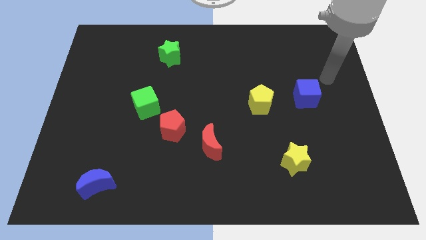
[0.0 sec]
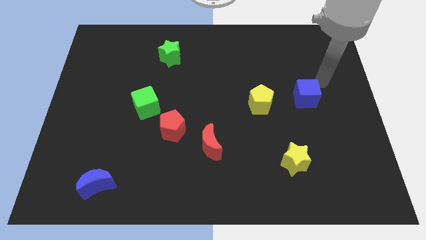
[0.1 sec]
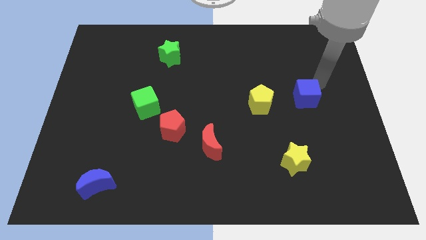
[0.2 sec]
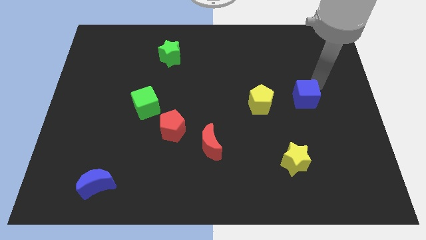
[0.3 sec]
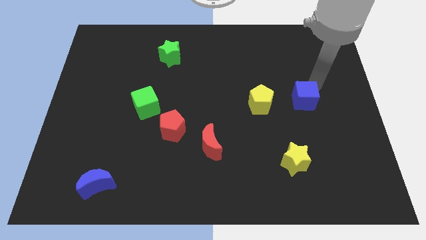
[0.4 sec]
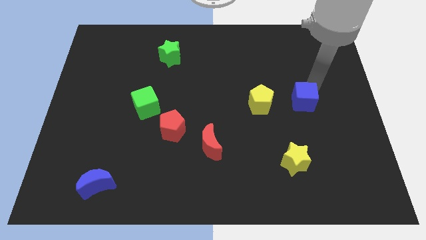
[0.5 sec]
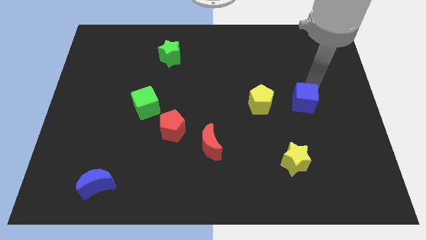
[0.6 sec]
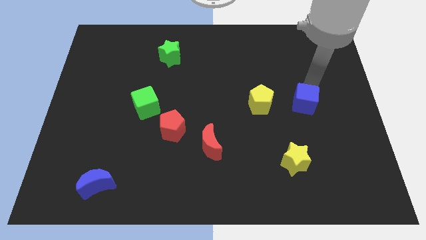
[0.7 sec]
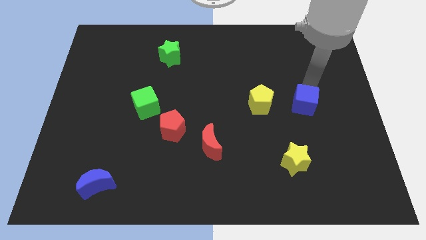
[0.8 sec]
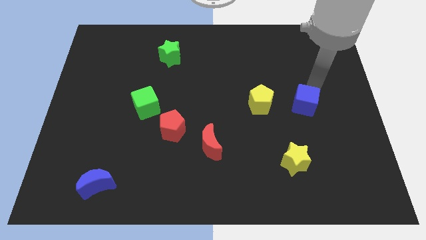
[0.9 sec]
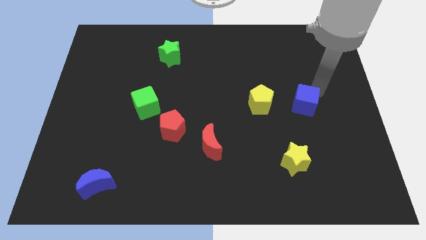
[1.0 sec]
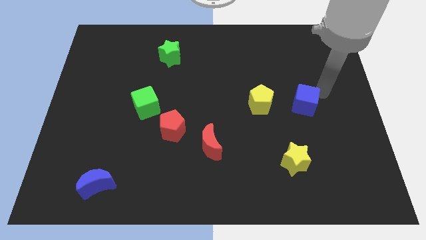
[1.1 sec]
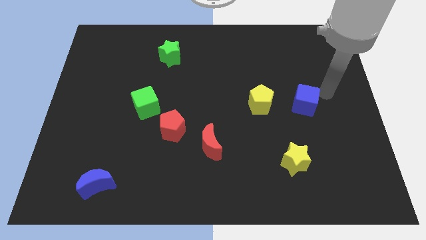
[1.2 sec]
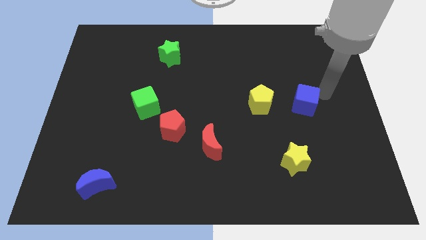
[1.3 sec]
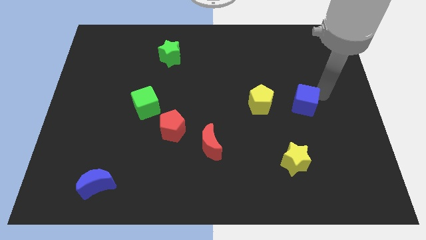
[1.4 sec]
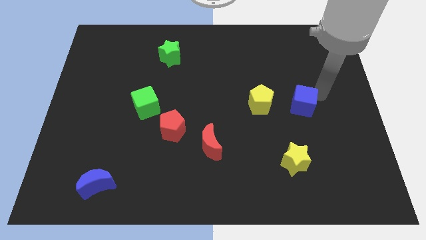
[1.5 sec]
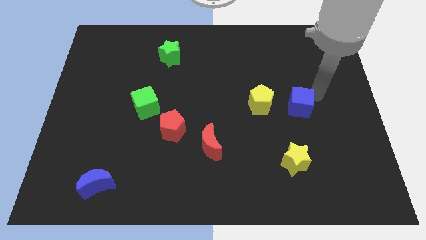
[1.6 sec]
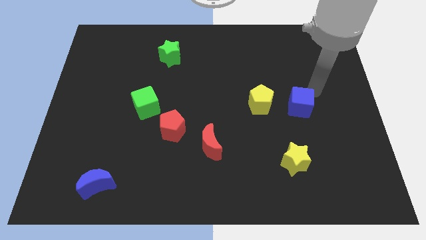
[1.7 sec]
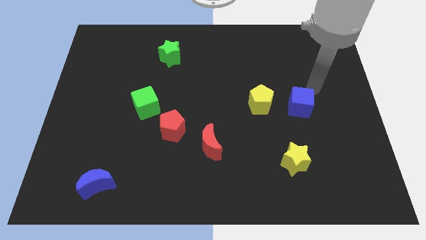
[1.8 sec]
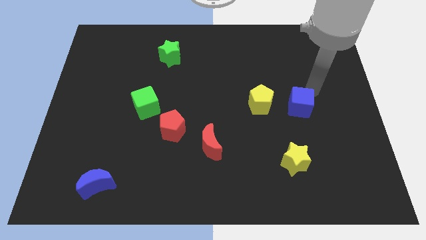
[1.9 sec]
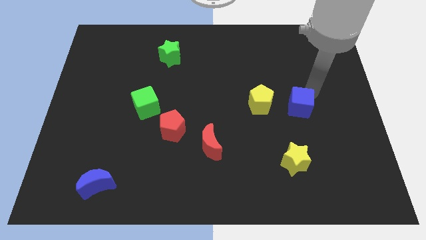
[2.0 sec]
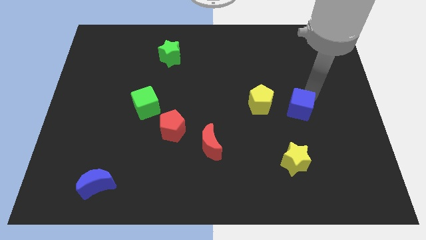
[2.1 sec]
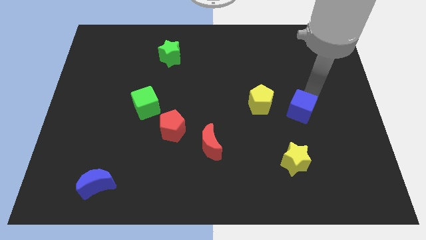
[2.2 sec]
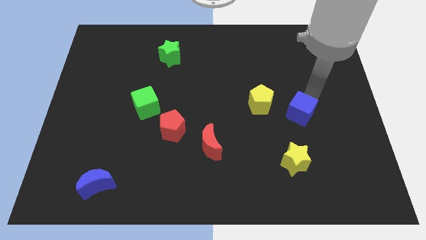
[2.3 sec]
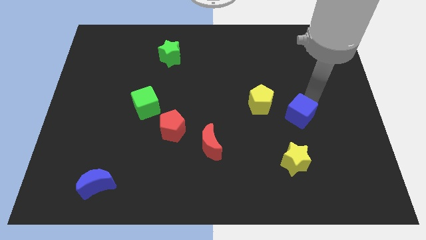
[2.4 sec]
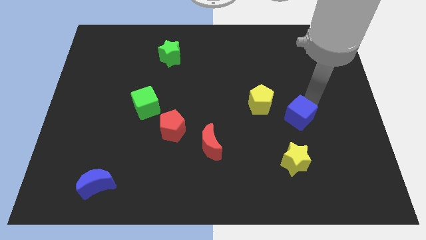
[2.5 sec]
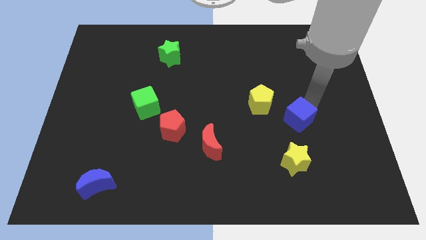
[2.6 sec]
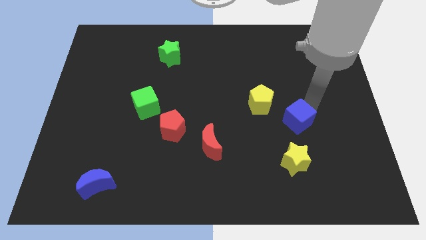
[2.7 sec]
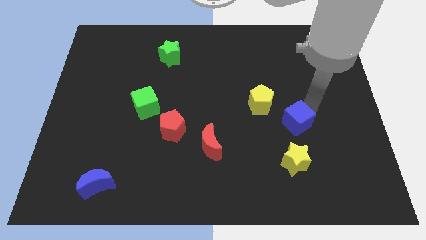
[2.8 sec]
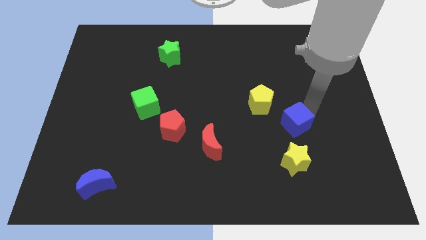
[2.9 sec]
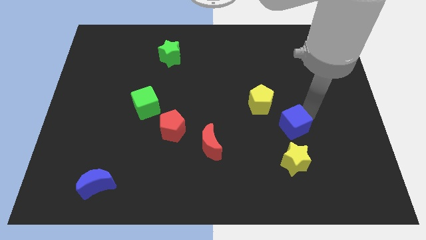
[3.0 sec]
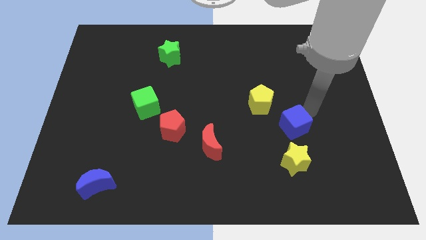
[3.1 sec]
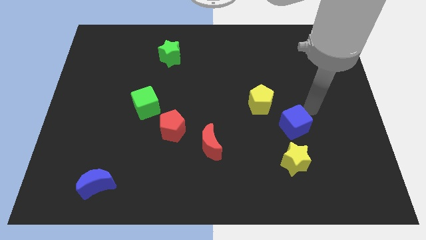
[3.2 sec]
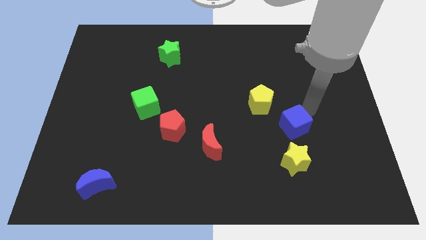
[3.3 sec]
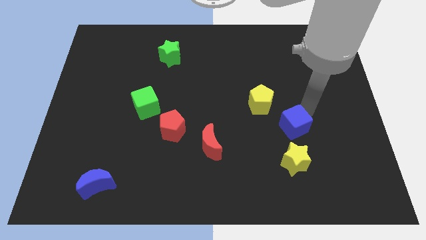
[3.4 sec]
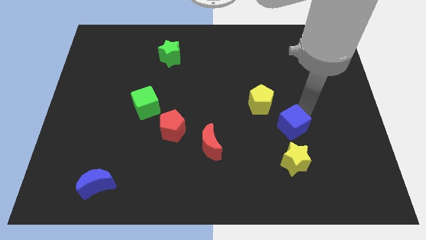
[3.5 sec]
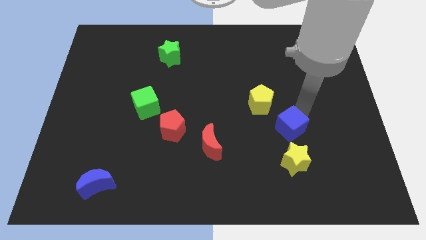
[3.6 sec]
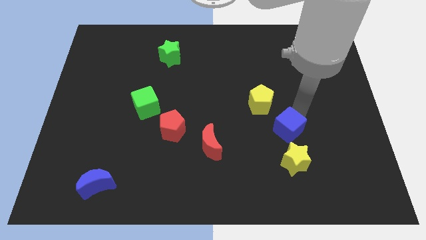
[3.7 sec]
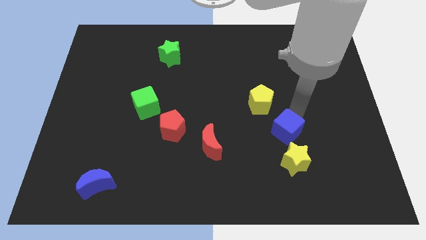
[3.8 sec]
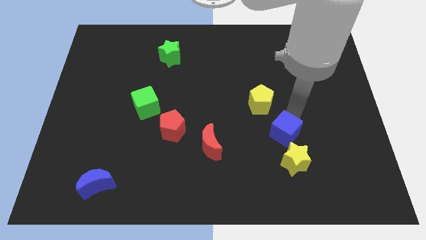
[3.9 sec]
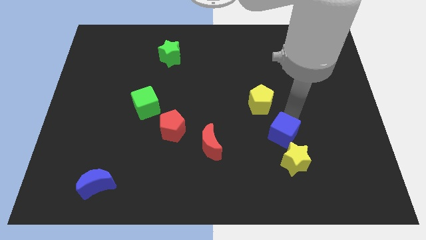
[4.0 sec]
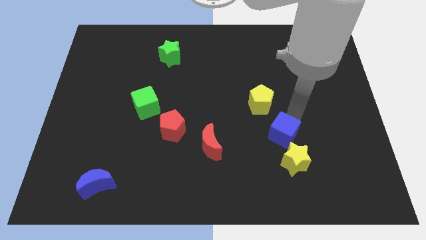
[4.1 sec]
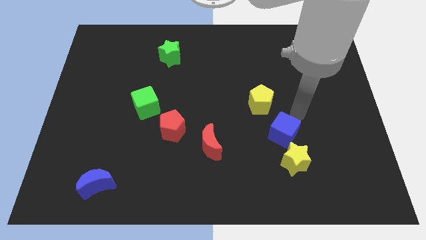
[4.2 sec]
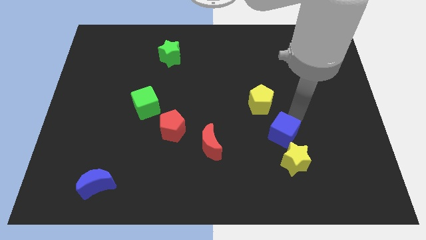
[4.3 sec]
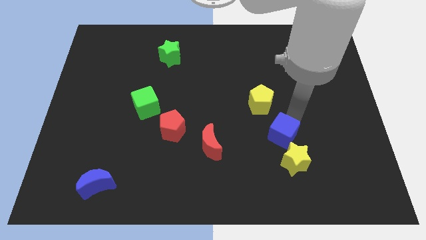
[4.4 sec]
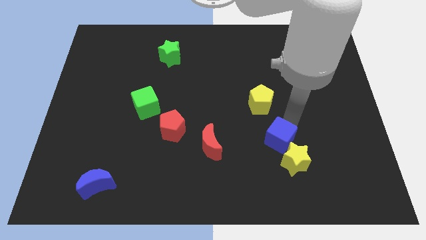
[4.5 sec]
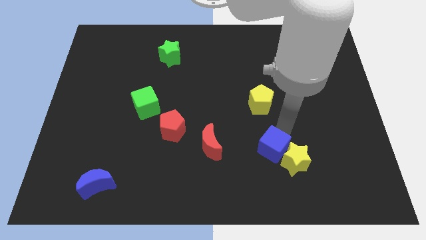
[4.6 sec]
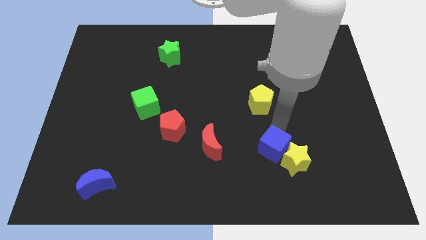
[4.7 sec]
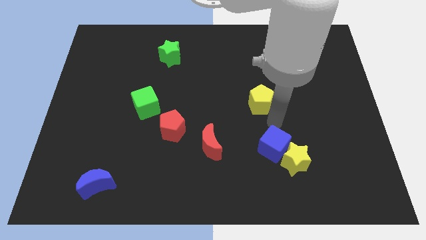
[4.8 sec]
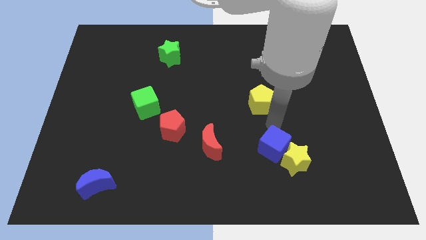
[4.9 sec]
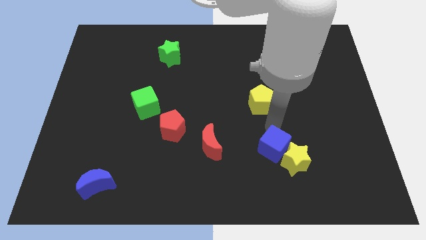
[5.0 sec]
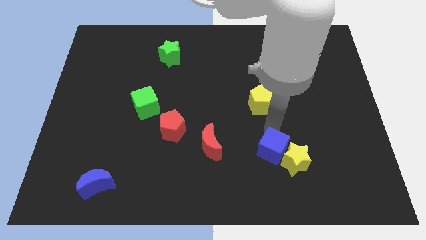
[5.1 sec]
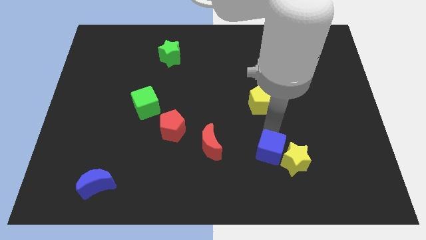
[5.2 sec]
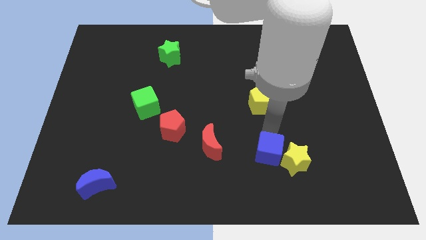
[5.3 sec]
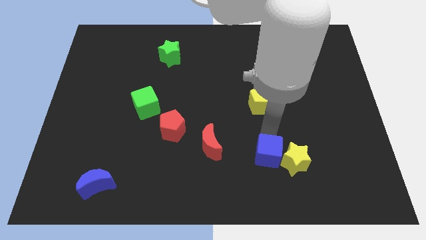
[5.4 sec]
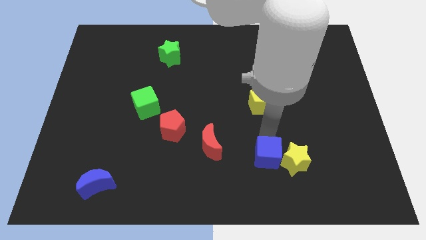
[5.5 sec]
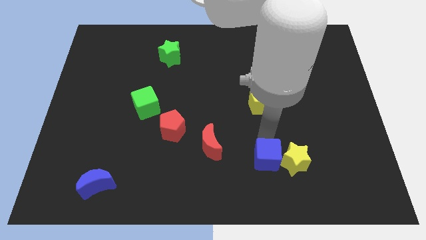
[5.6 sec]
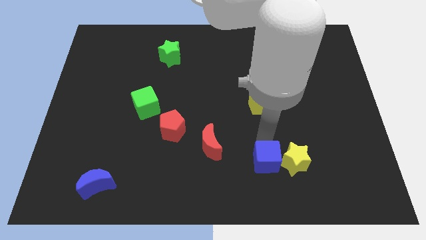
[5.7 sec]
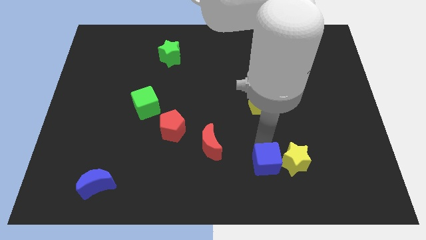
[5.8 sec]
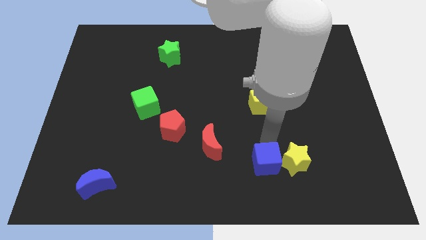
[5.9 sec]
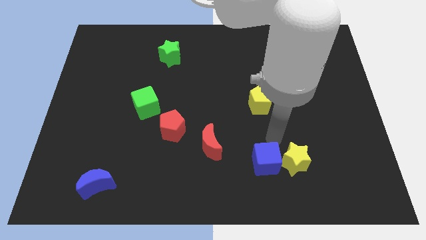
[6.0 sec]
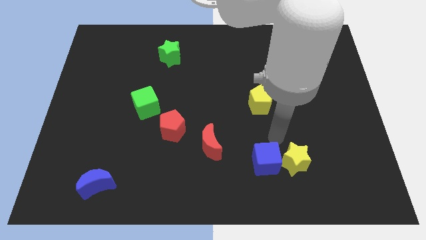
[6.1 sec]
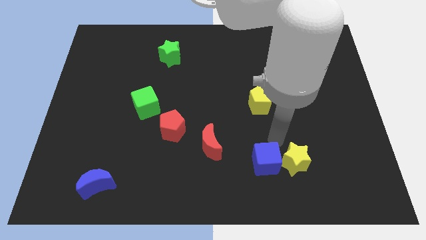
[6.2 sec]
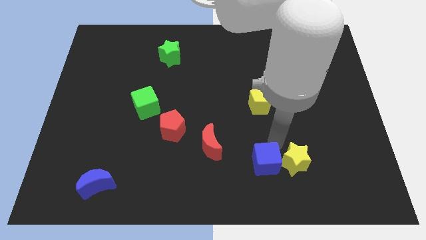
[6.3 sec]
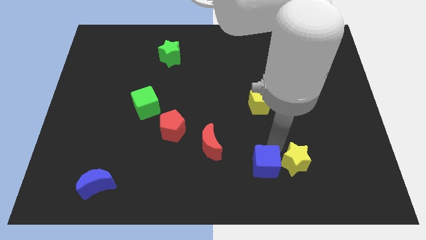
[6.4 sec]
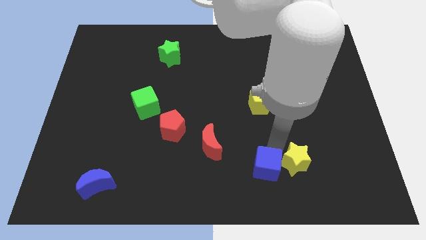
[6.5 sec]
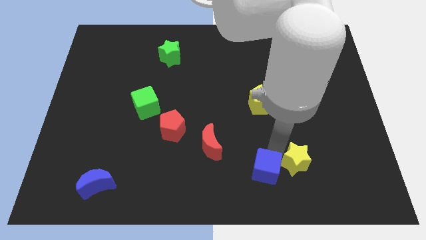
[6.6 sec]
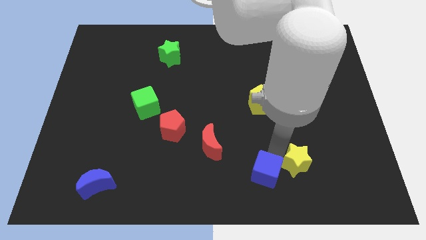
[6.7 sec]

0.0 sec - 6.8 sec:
move the blue cube to the bottom
